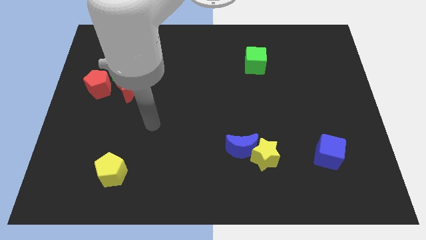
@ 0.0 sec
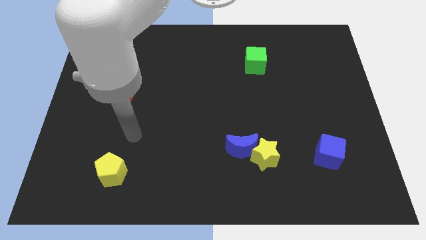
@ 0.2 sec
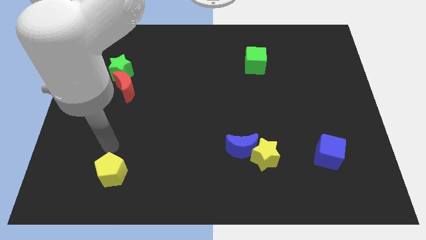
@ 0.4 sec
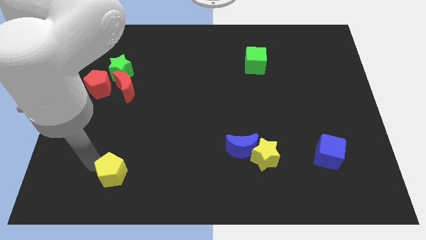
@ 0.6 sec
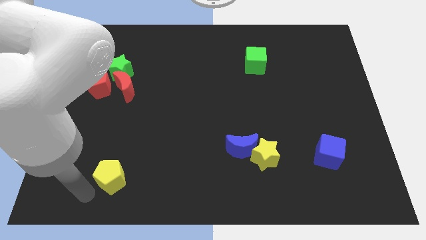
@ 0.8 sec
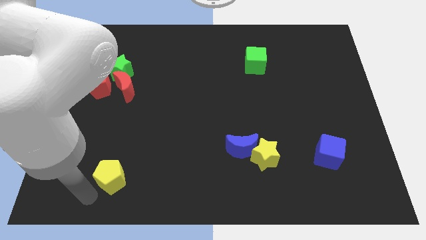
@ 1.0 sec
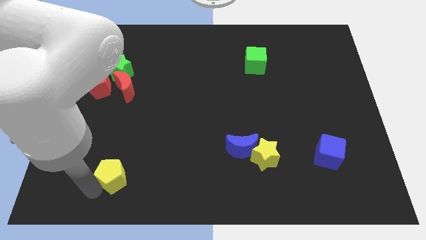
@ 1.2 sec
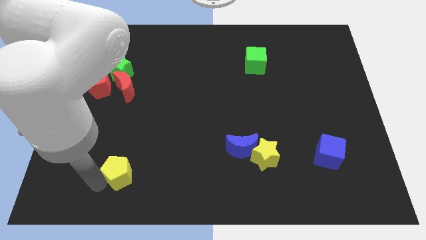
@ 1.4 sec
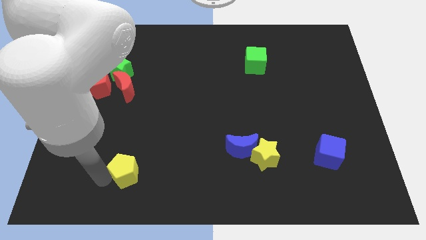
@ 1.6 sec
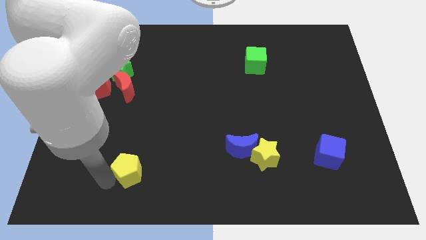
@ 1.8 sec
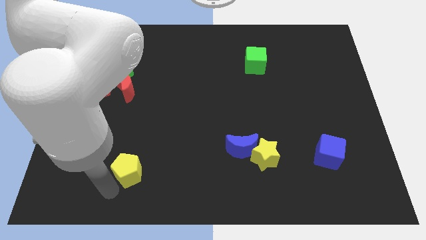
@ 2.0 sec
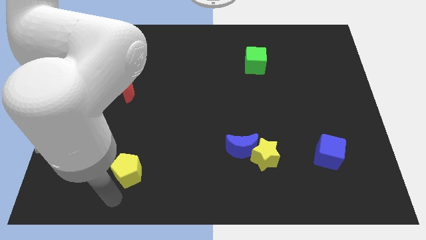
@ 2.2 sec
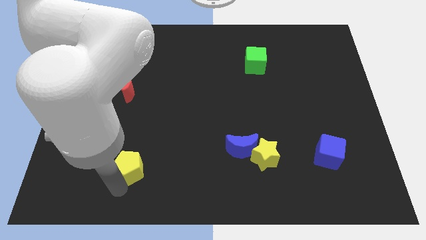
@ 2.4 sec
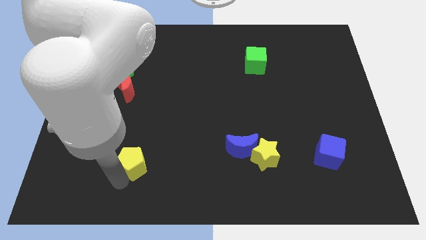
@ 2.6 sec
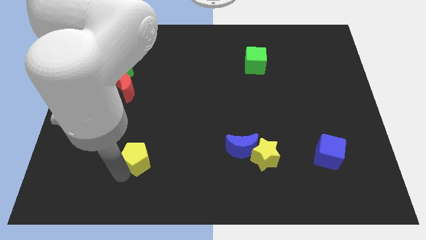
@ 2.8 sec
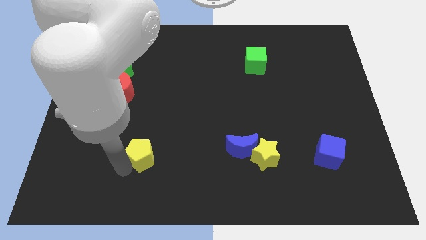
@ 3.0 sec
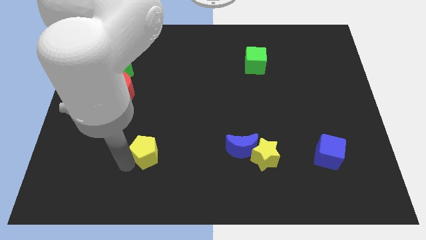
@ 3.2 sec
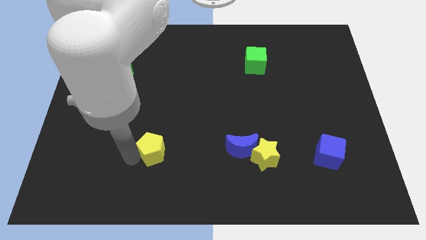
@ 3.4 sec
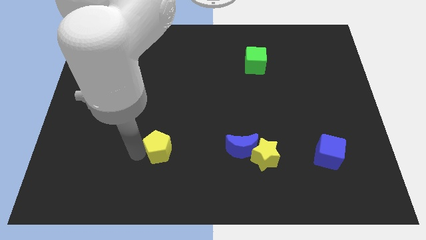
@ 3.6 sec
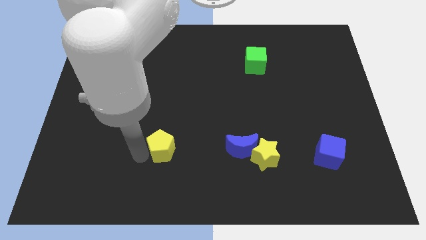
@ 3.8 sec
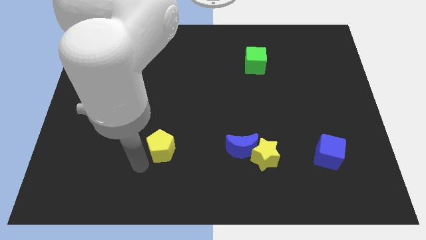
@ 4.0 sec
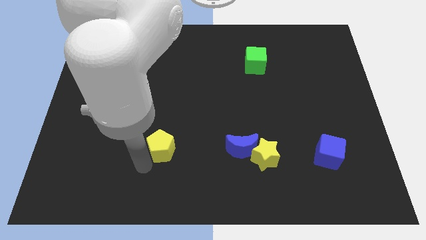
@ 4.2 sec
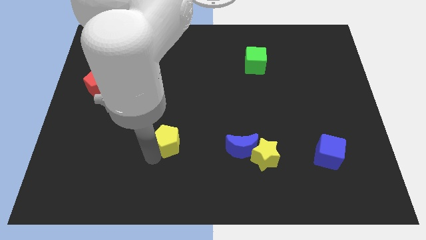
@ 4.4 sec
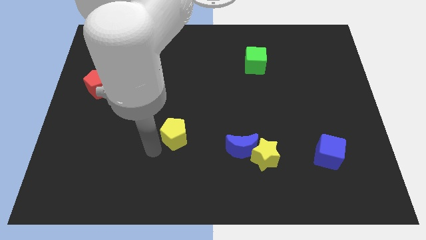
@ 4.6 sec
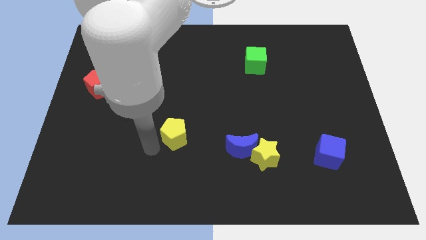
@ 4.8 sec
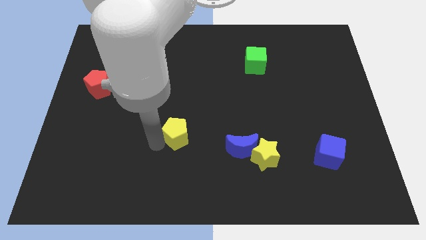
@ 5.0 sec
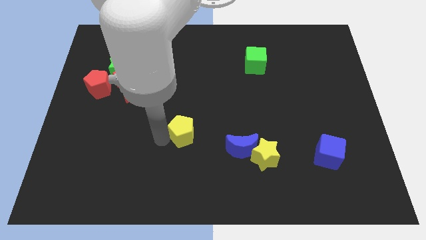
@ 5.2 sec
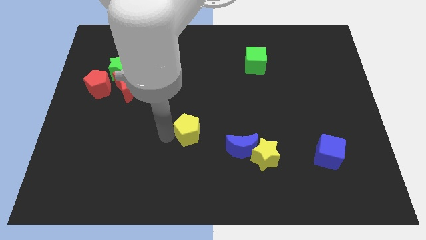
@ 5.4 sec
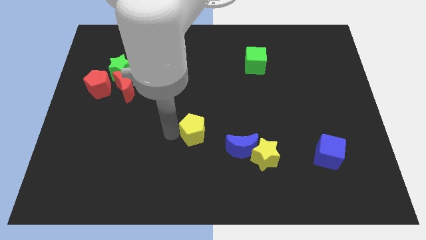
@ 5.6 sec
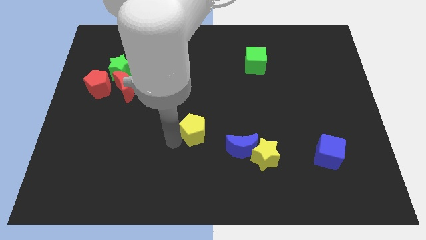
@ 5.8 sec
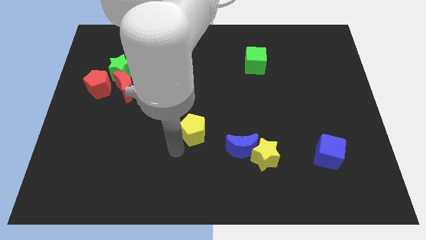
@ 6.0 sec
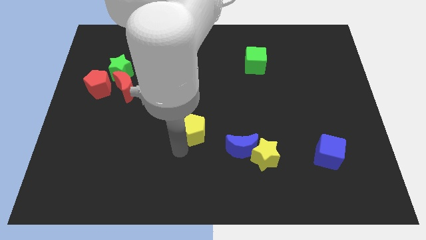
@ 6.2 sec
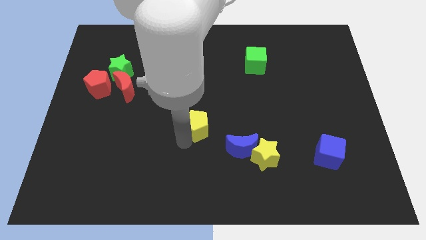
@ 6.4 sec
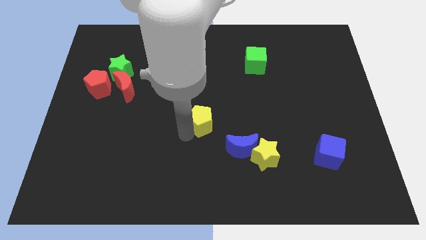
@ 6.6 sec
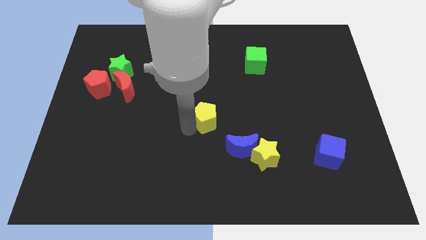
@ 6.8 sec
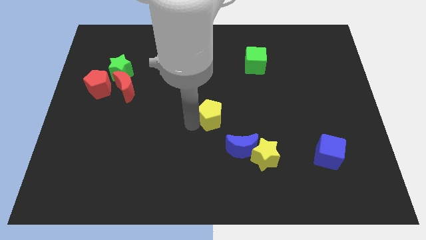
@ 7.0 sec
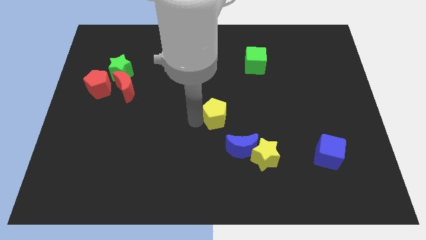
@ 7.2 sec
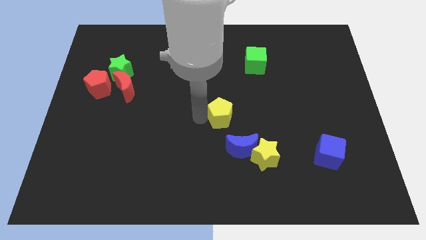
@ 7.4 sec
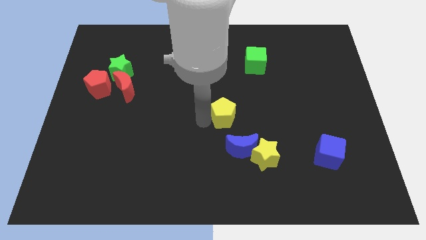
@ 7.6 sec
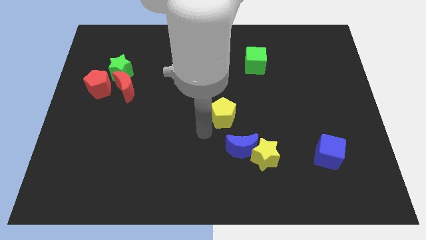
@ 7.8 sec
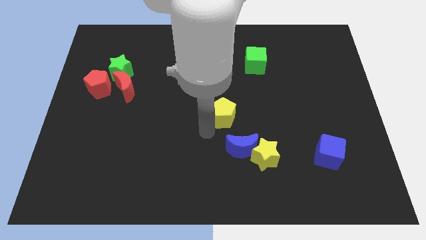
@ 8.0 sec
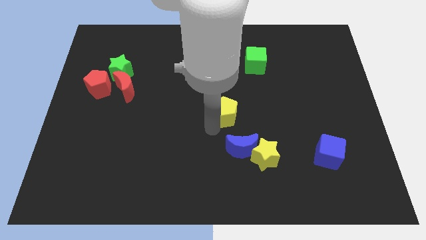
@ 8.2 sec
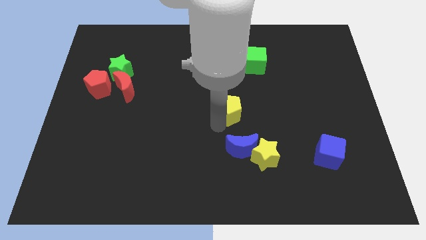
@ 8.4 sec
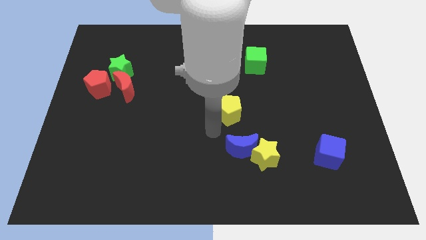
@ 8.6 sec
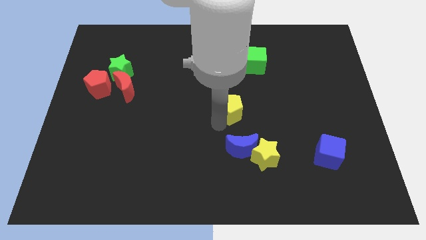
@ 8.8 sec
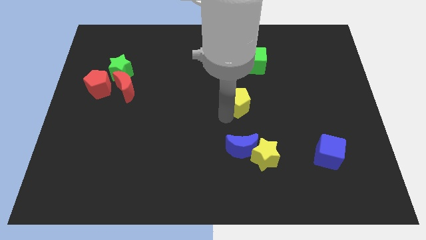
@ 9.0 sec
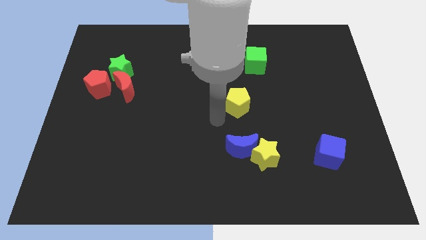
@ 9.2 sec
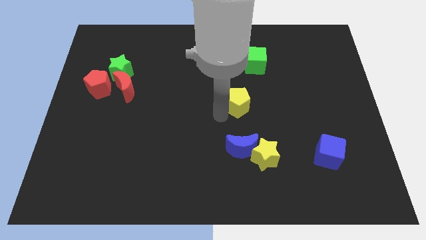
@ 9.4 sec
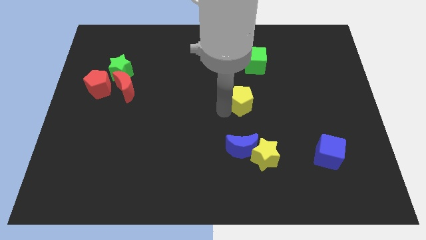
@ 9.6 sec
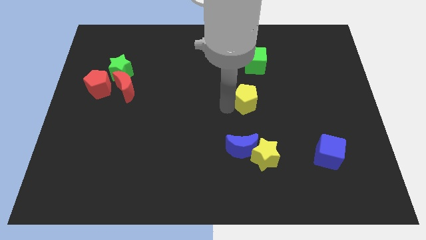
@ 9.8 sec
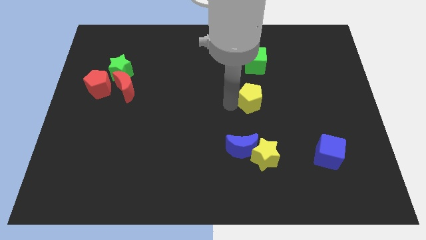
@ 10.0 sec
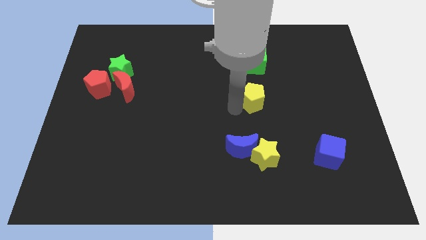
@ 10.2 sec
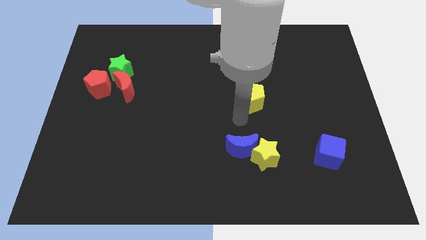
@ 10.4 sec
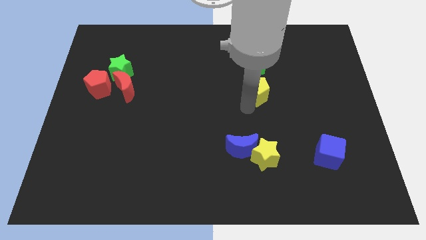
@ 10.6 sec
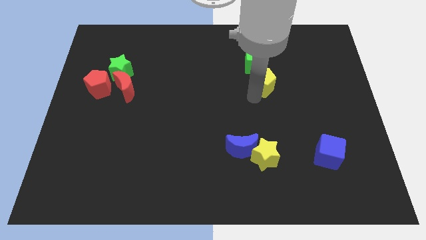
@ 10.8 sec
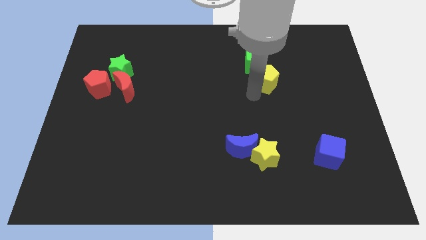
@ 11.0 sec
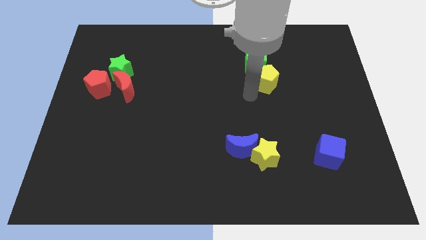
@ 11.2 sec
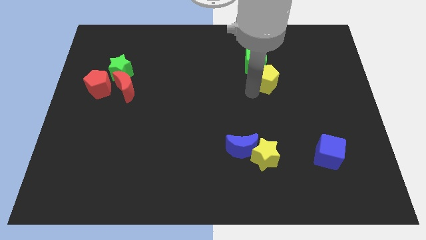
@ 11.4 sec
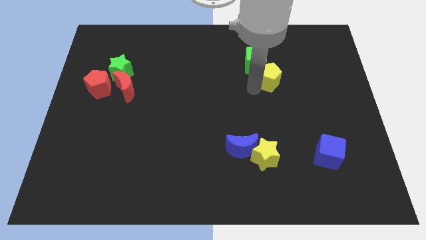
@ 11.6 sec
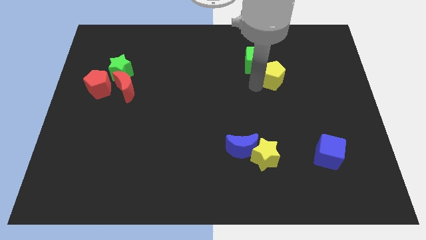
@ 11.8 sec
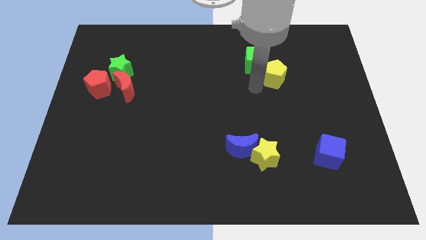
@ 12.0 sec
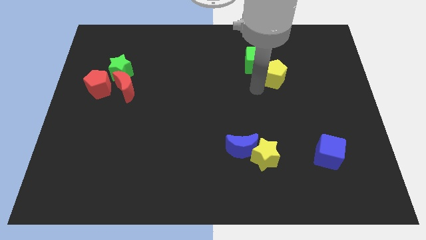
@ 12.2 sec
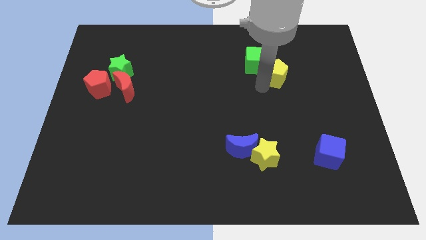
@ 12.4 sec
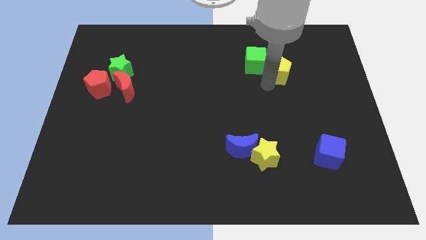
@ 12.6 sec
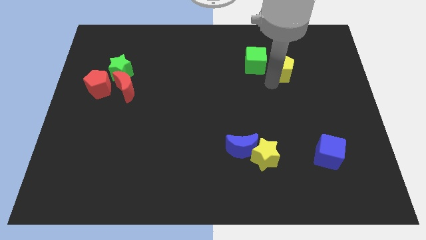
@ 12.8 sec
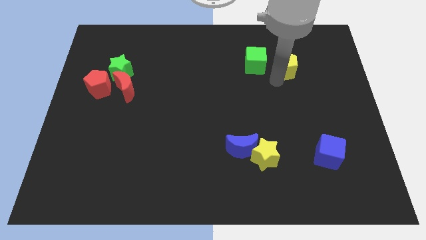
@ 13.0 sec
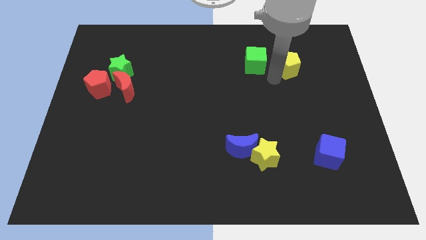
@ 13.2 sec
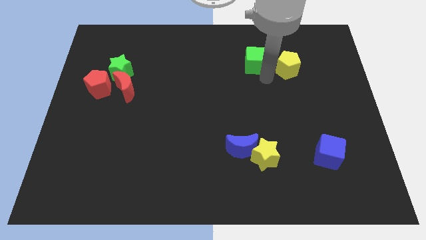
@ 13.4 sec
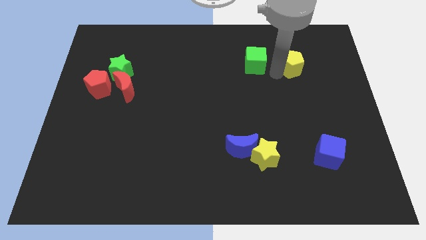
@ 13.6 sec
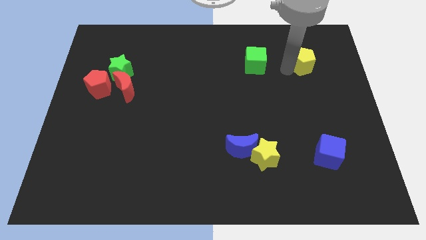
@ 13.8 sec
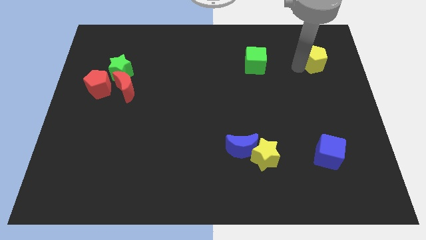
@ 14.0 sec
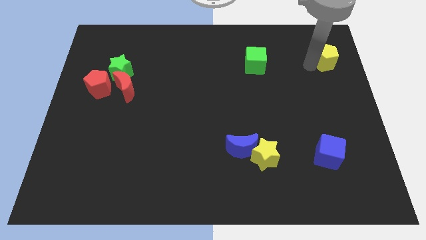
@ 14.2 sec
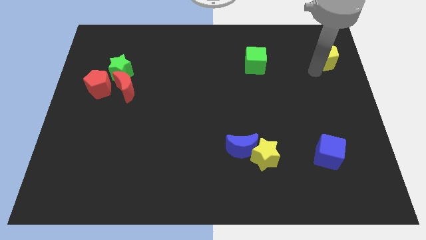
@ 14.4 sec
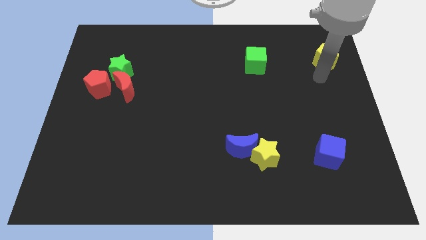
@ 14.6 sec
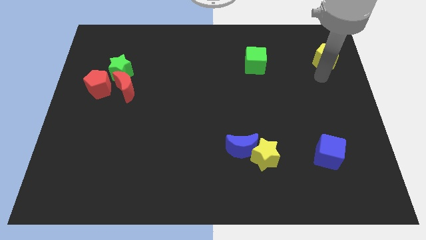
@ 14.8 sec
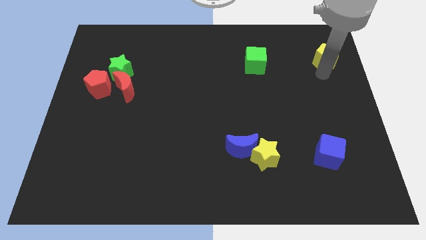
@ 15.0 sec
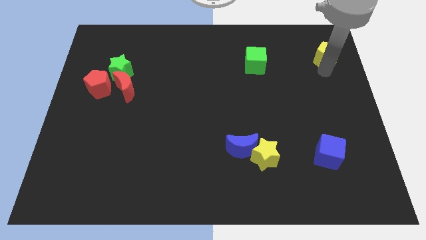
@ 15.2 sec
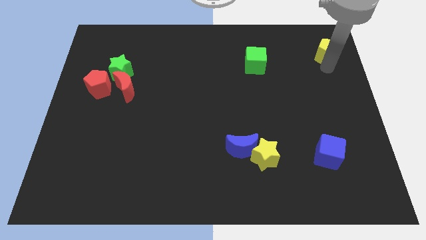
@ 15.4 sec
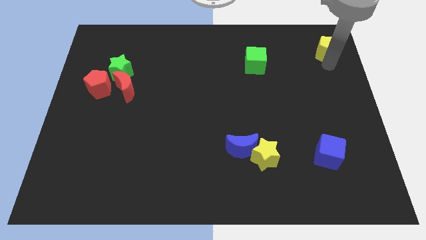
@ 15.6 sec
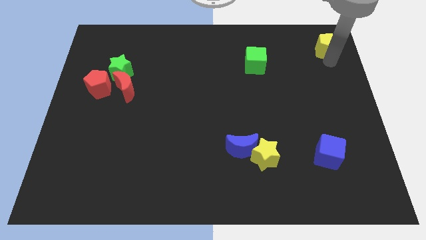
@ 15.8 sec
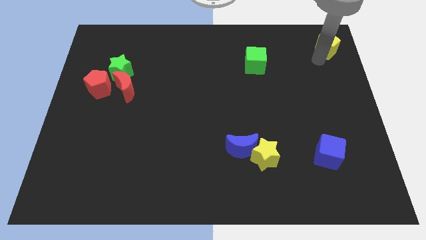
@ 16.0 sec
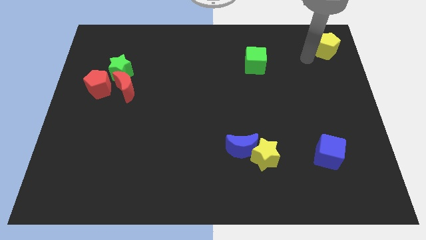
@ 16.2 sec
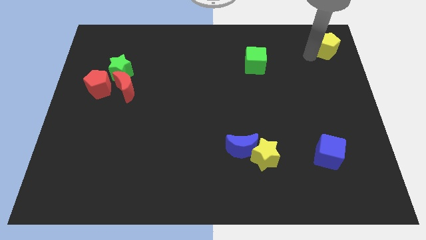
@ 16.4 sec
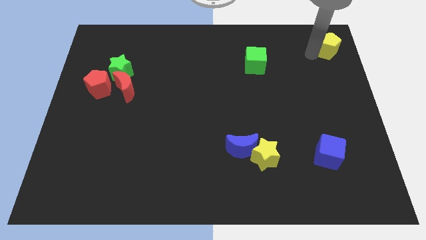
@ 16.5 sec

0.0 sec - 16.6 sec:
slide the yellow pentagon to the top right corner
